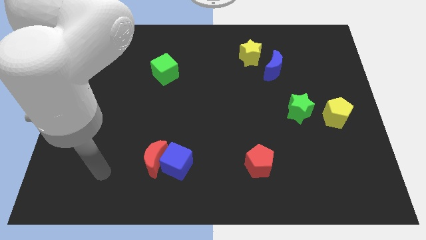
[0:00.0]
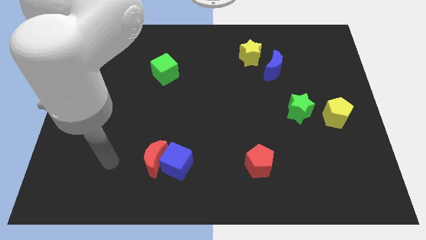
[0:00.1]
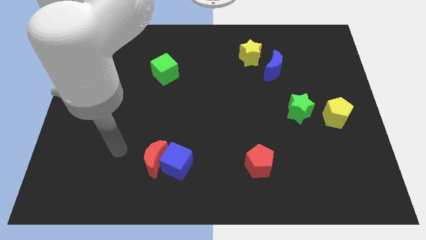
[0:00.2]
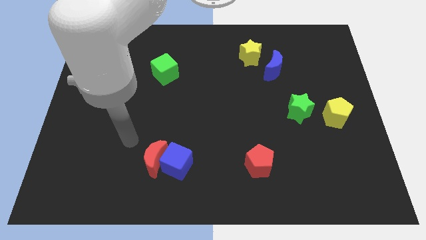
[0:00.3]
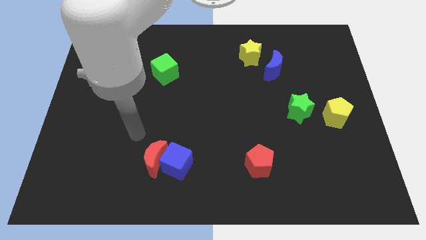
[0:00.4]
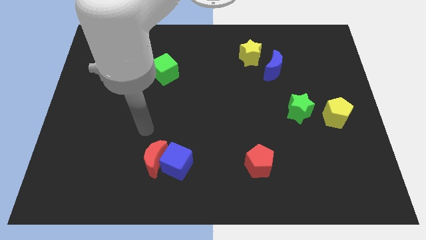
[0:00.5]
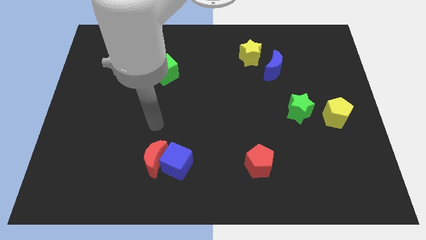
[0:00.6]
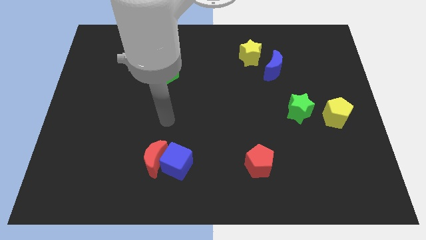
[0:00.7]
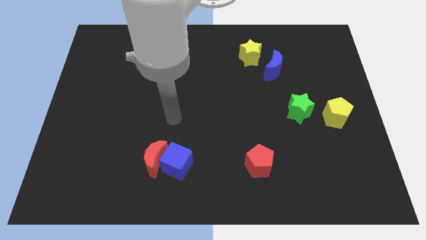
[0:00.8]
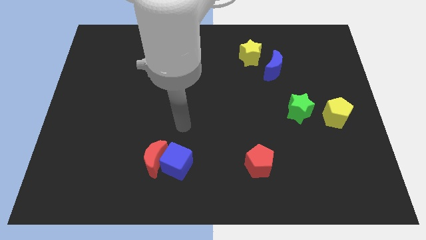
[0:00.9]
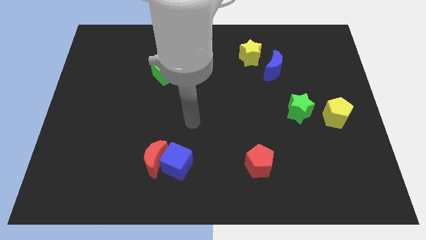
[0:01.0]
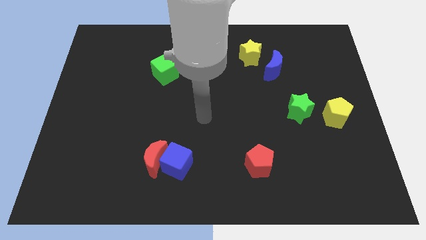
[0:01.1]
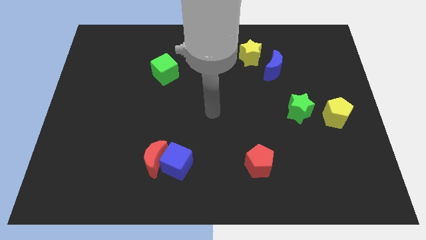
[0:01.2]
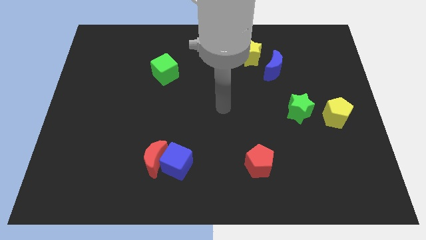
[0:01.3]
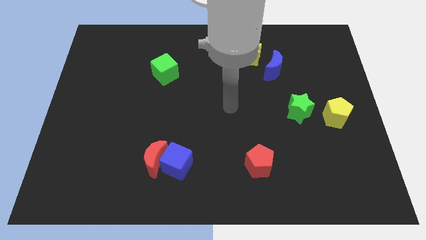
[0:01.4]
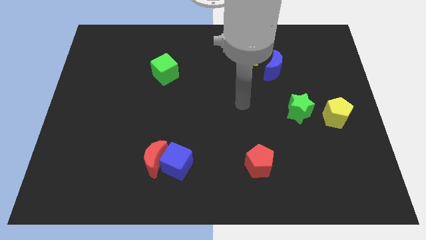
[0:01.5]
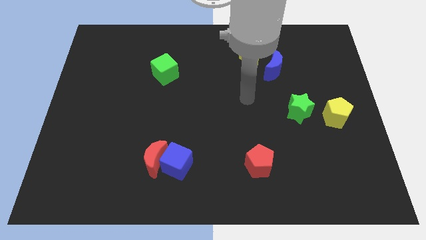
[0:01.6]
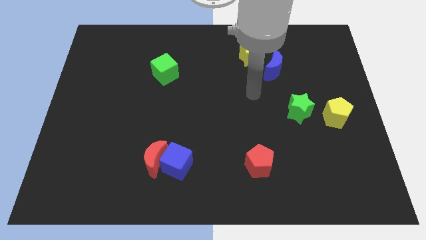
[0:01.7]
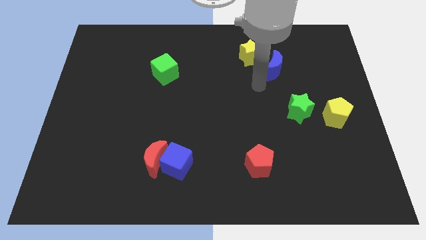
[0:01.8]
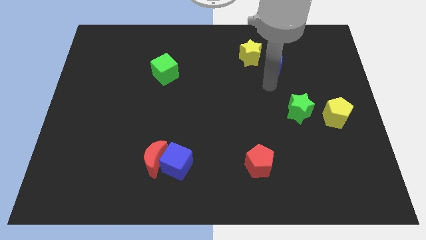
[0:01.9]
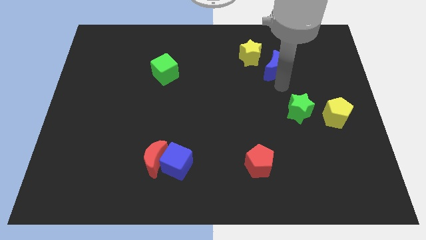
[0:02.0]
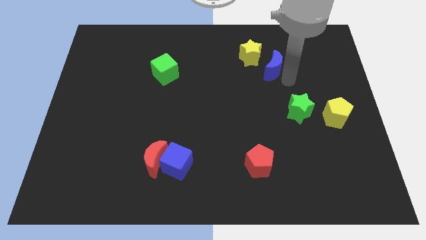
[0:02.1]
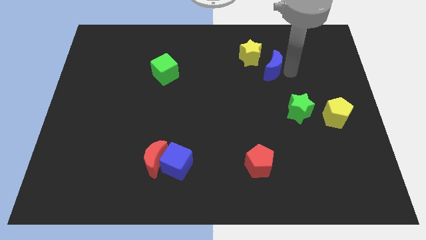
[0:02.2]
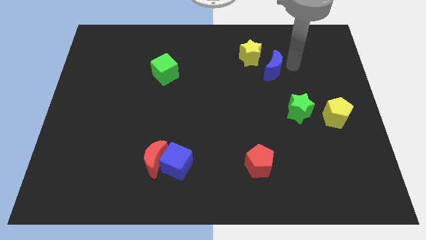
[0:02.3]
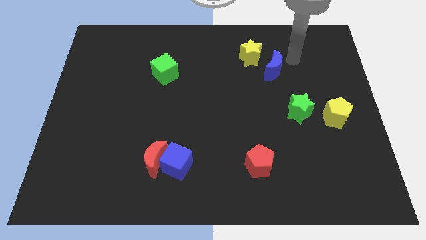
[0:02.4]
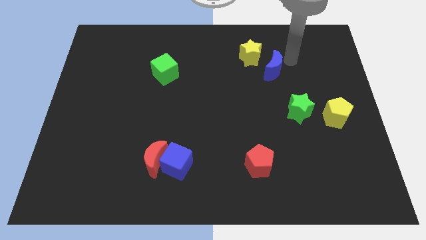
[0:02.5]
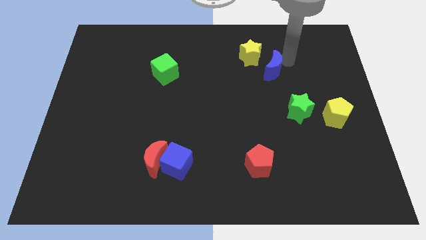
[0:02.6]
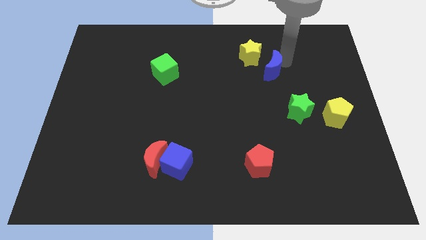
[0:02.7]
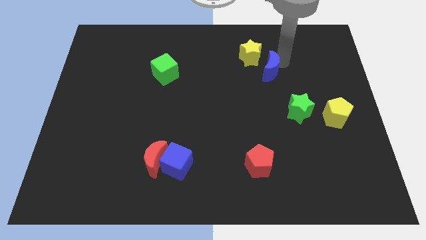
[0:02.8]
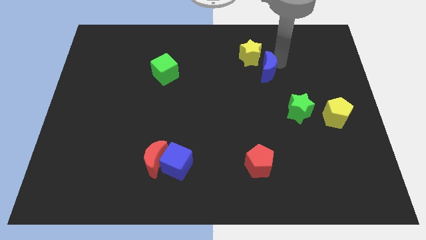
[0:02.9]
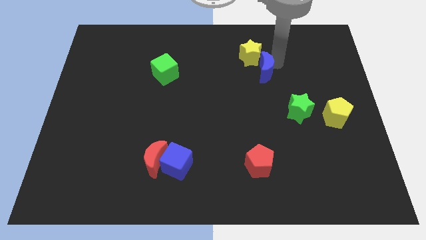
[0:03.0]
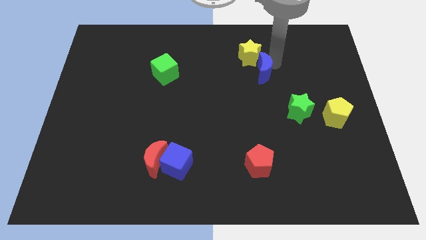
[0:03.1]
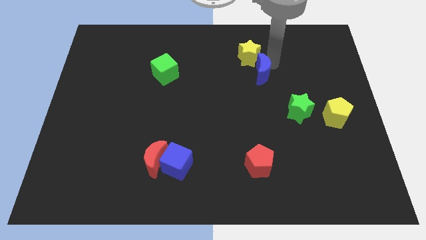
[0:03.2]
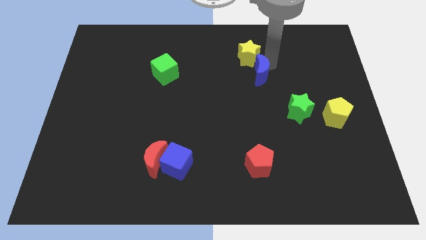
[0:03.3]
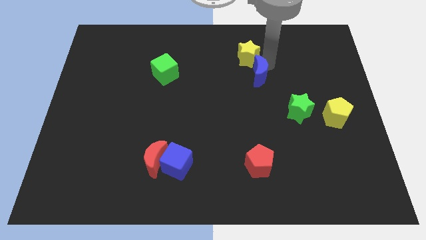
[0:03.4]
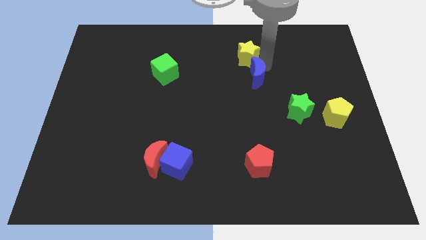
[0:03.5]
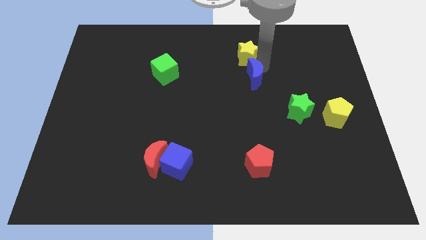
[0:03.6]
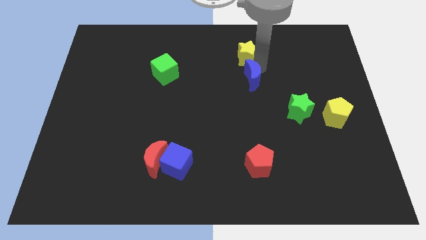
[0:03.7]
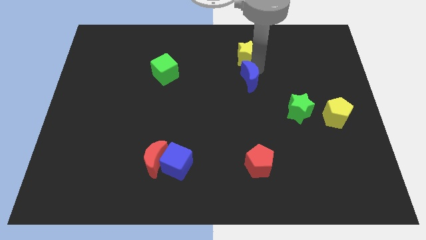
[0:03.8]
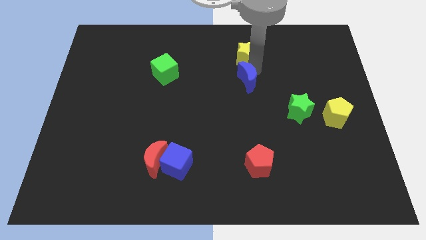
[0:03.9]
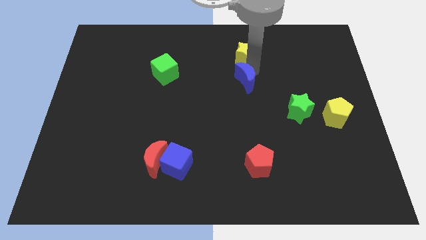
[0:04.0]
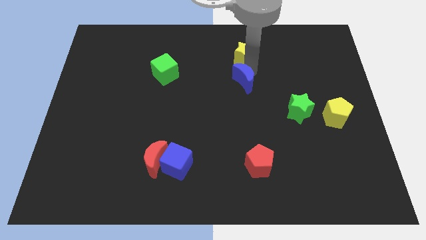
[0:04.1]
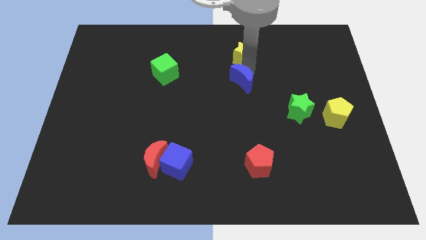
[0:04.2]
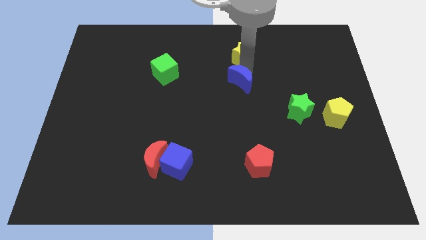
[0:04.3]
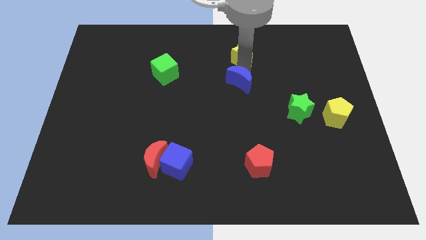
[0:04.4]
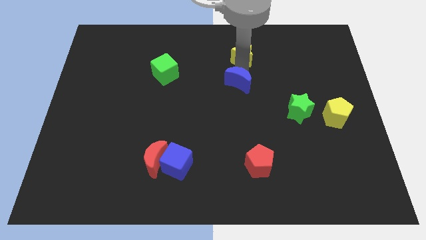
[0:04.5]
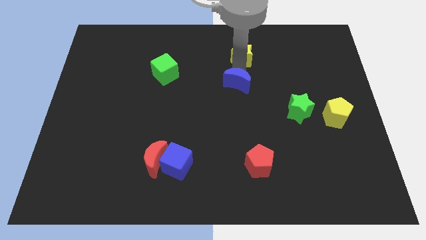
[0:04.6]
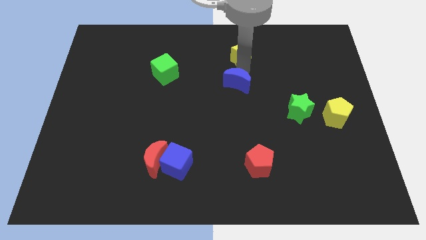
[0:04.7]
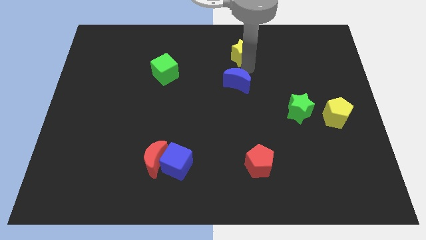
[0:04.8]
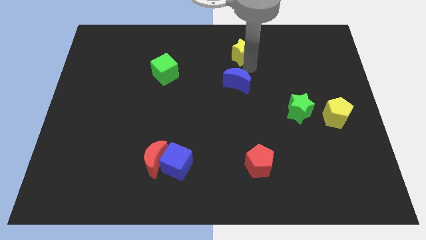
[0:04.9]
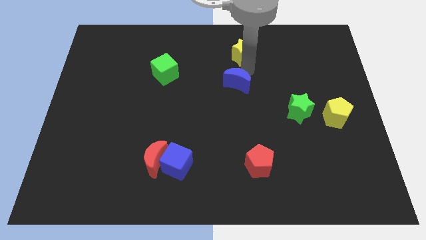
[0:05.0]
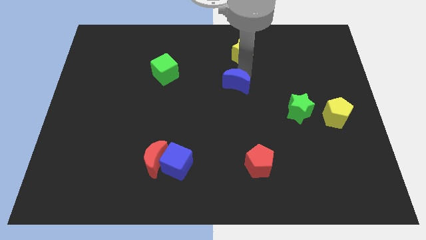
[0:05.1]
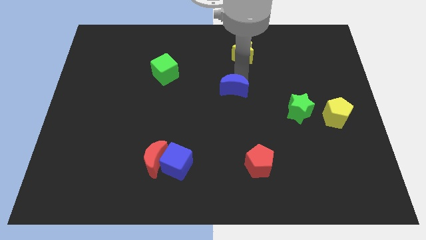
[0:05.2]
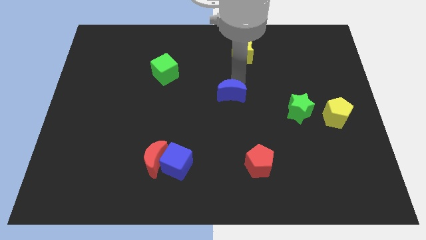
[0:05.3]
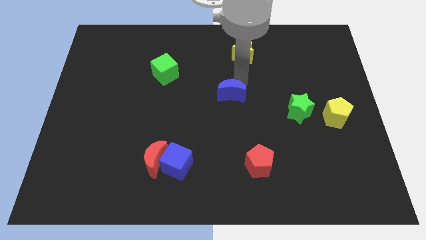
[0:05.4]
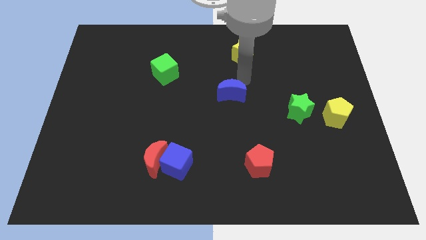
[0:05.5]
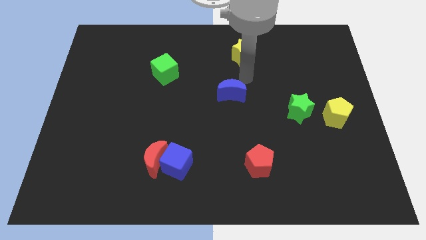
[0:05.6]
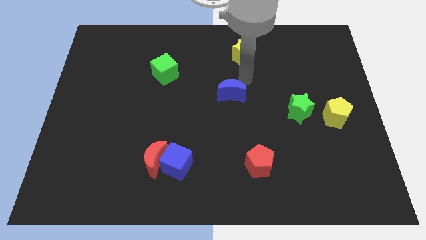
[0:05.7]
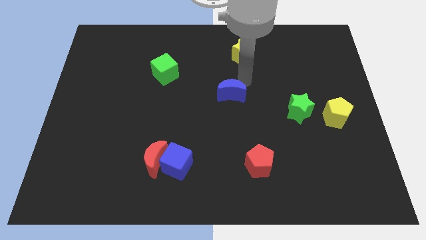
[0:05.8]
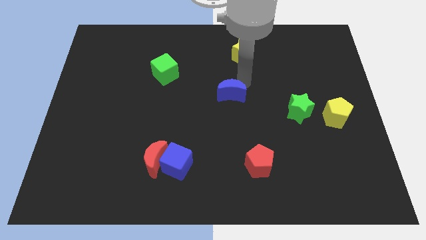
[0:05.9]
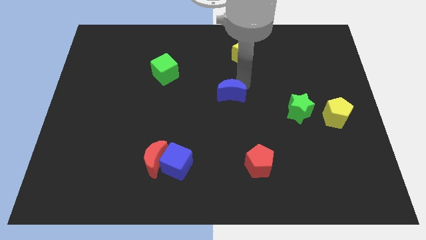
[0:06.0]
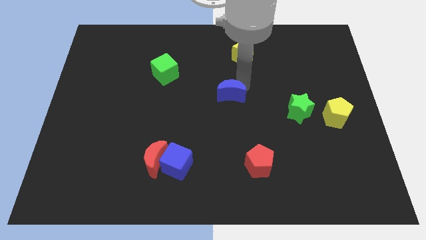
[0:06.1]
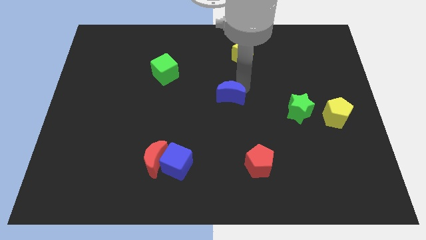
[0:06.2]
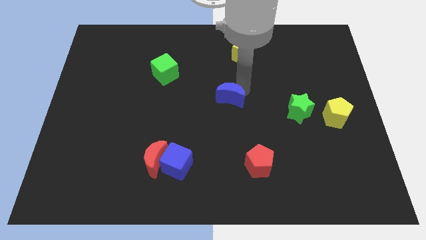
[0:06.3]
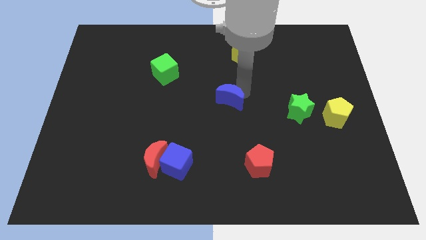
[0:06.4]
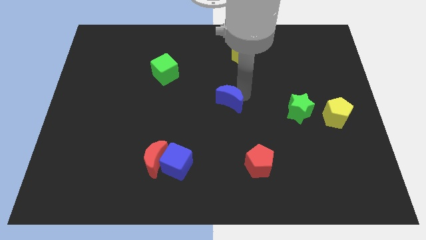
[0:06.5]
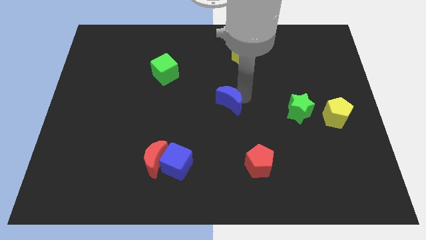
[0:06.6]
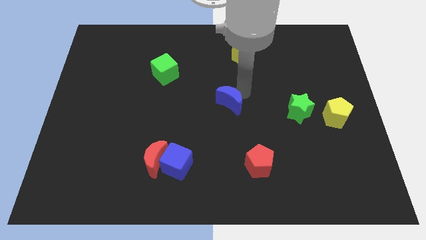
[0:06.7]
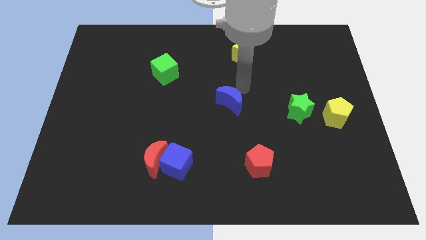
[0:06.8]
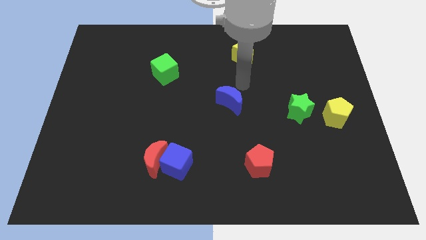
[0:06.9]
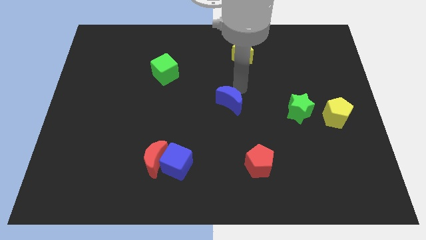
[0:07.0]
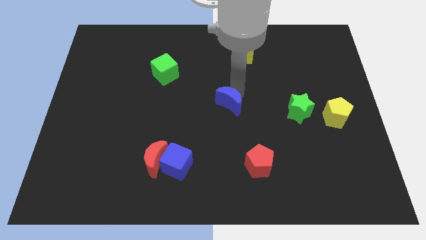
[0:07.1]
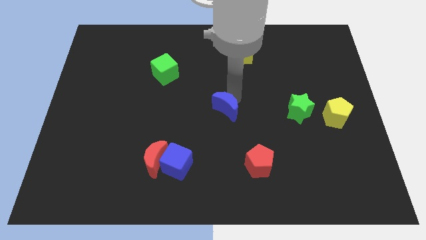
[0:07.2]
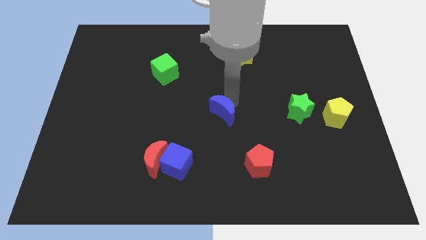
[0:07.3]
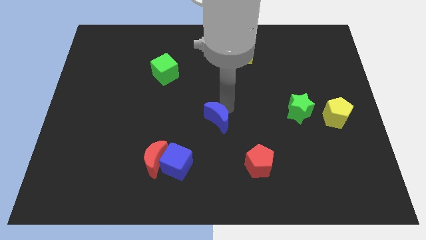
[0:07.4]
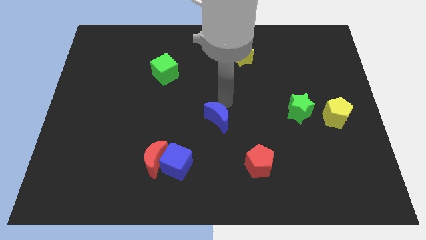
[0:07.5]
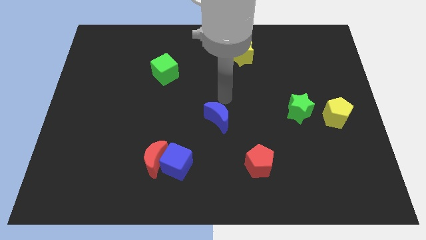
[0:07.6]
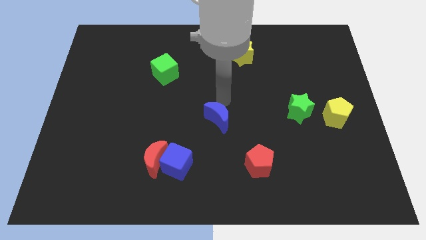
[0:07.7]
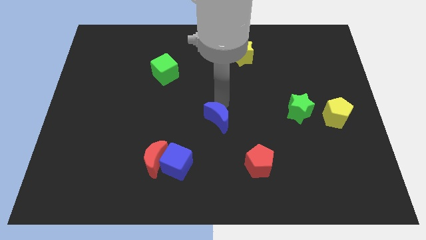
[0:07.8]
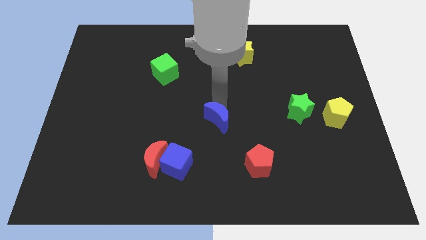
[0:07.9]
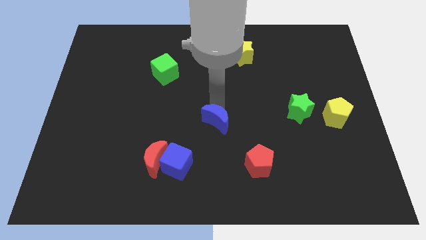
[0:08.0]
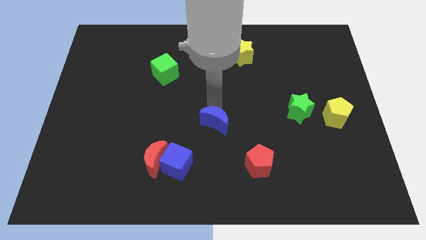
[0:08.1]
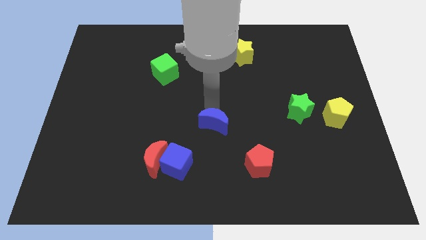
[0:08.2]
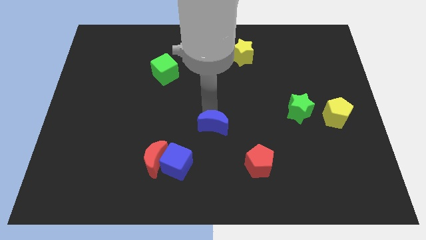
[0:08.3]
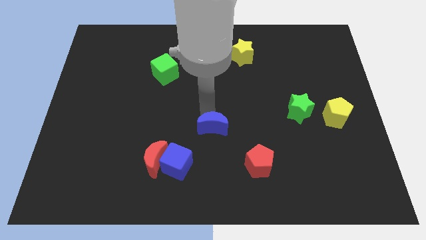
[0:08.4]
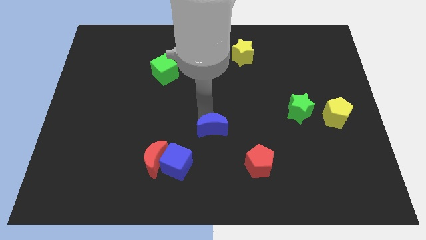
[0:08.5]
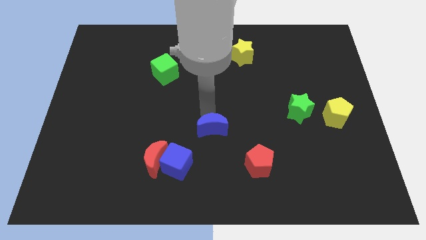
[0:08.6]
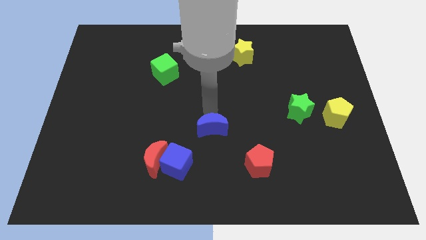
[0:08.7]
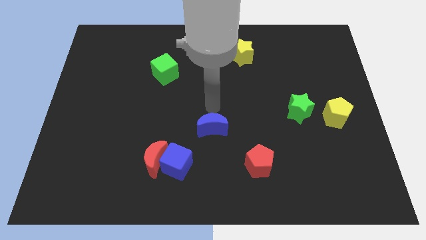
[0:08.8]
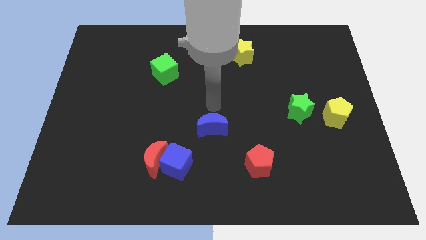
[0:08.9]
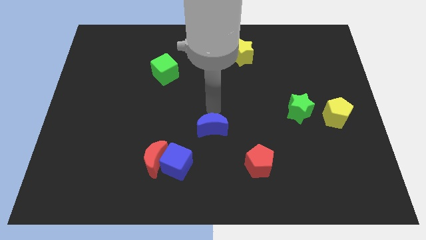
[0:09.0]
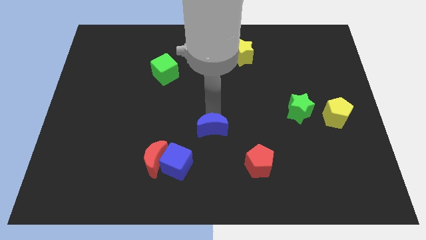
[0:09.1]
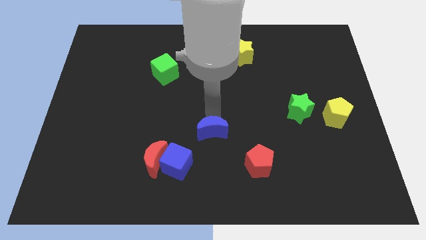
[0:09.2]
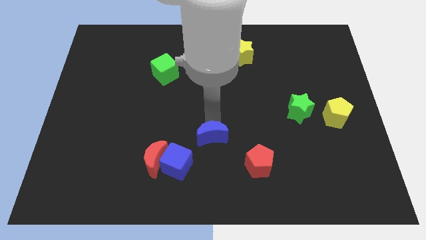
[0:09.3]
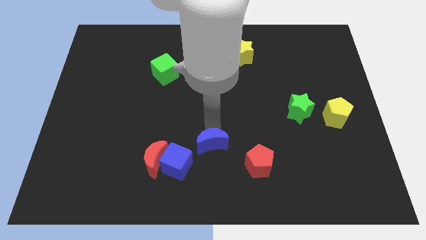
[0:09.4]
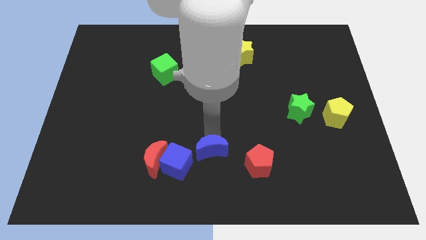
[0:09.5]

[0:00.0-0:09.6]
slide the blue moon to the left side of the red pentagon
